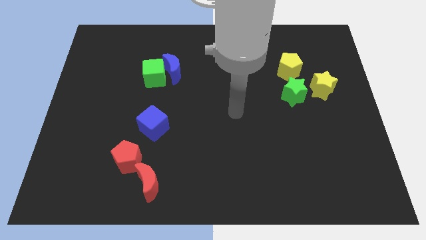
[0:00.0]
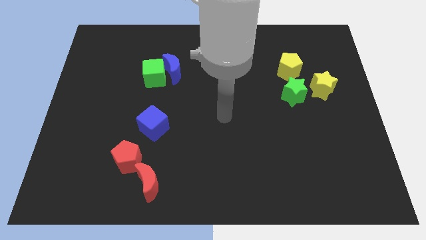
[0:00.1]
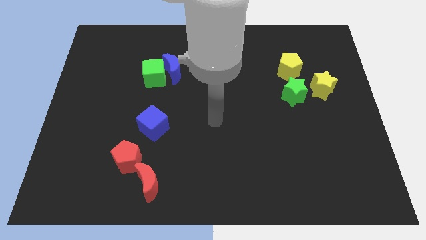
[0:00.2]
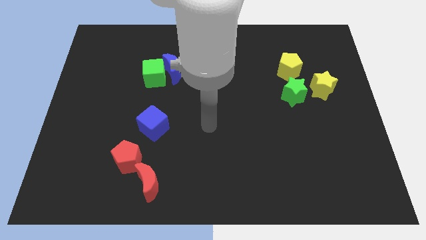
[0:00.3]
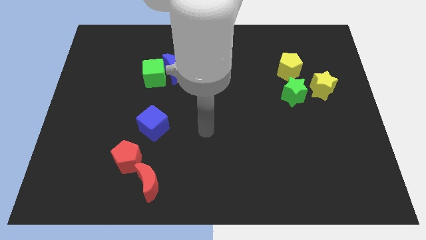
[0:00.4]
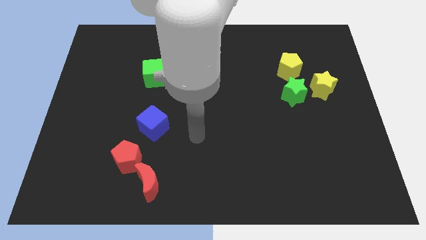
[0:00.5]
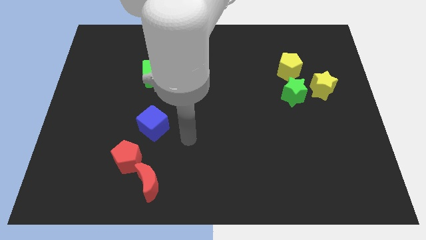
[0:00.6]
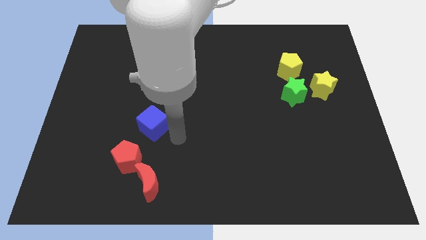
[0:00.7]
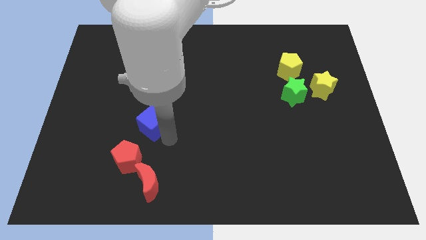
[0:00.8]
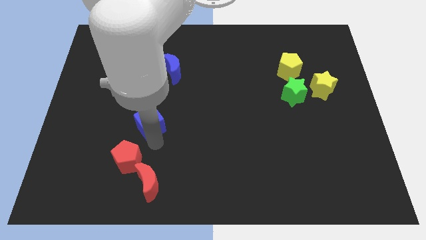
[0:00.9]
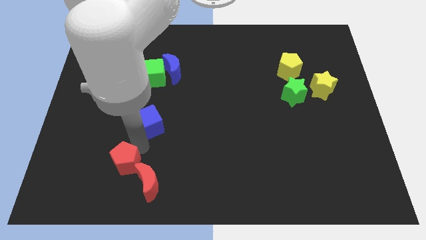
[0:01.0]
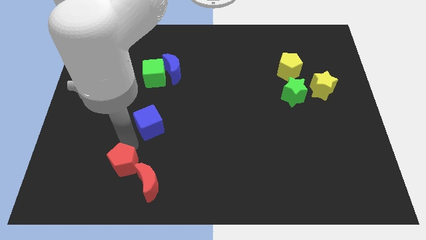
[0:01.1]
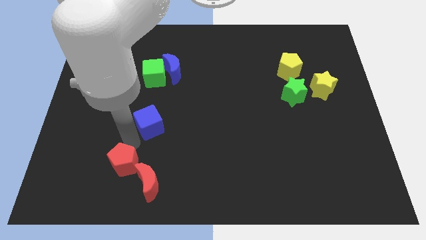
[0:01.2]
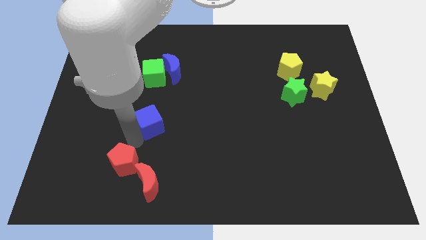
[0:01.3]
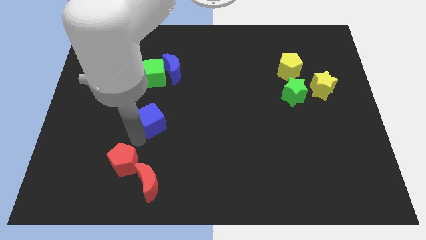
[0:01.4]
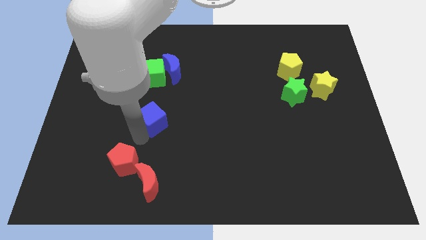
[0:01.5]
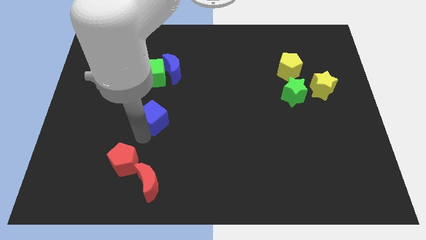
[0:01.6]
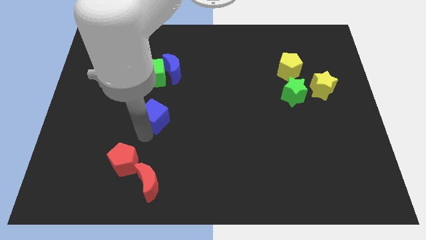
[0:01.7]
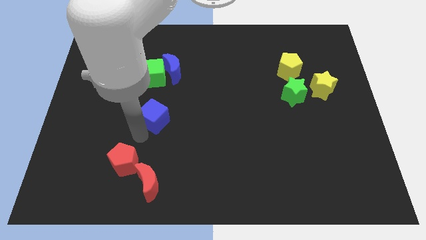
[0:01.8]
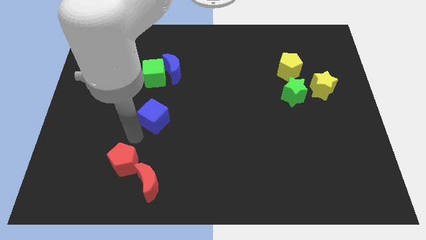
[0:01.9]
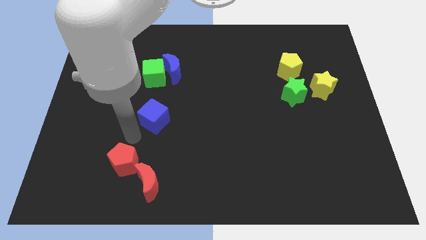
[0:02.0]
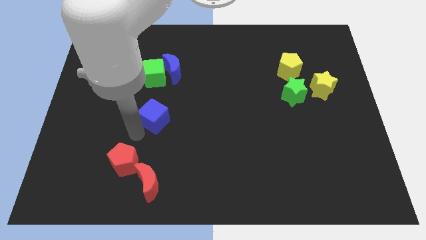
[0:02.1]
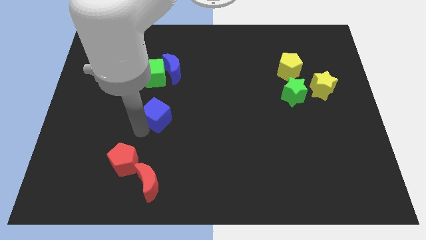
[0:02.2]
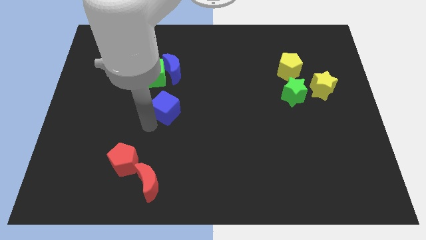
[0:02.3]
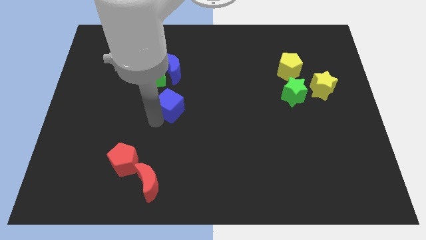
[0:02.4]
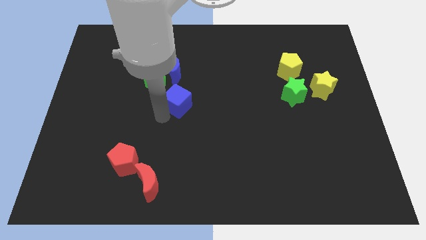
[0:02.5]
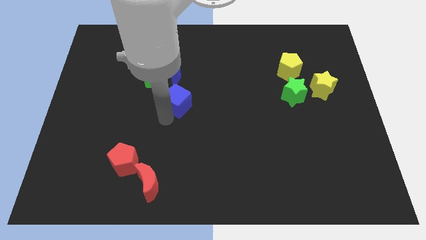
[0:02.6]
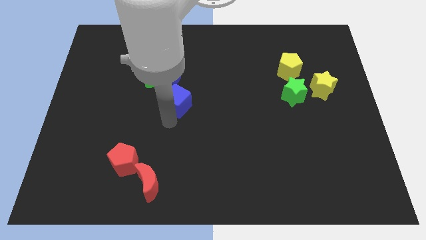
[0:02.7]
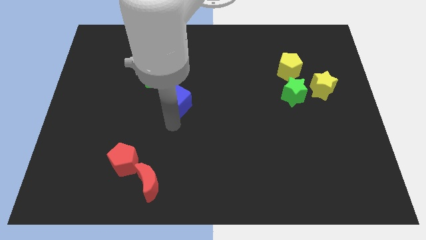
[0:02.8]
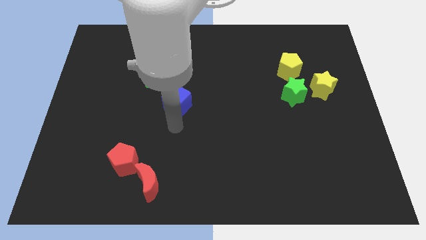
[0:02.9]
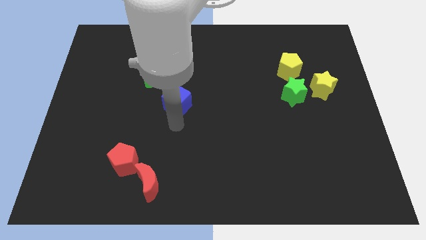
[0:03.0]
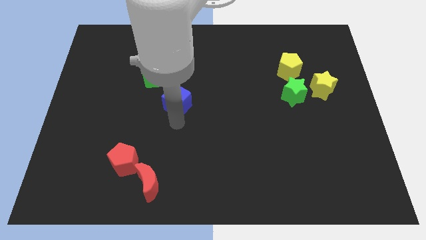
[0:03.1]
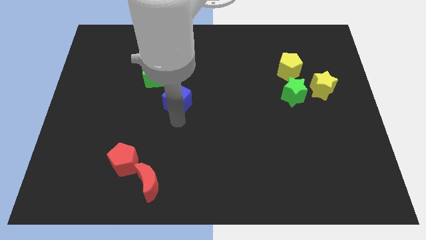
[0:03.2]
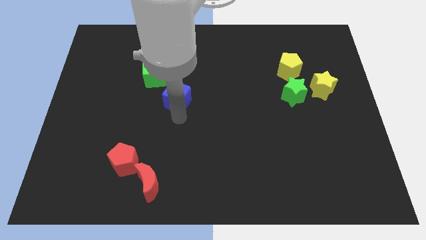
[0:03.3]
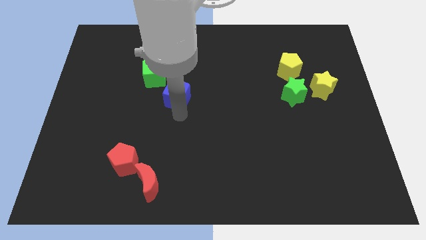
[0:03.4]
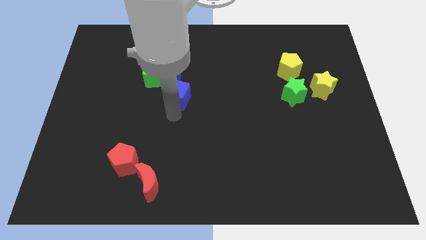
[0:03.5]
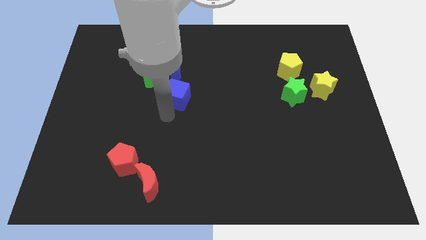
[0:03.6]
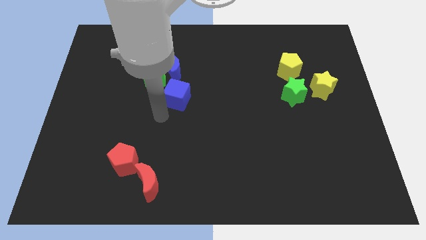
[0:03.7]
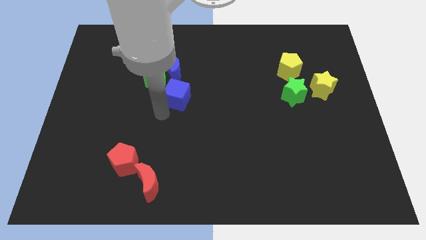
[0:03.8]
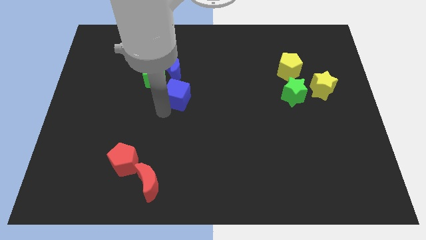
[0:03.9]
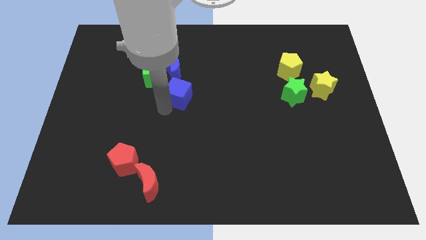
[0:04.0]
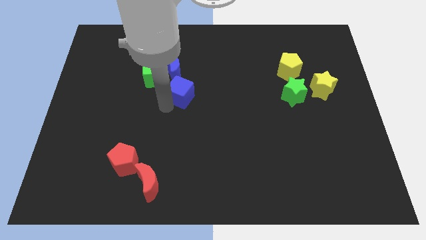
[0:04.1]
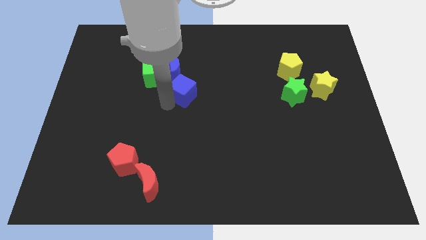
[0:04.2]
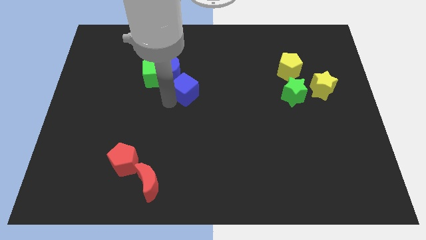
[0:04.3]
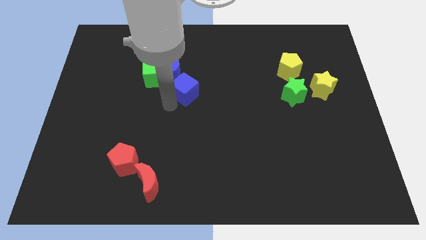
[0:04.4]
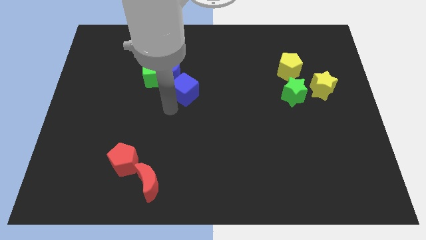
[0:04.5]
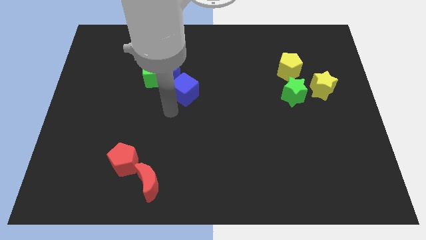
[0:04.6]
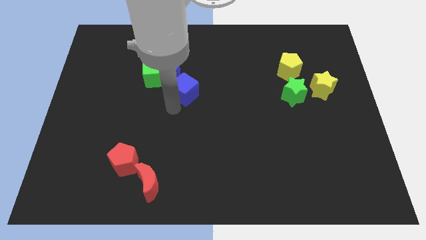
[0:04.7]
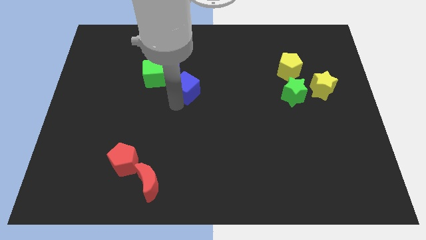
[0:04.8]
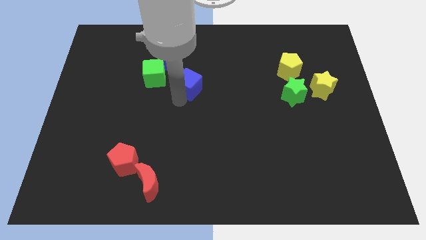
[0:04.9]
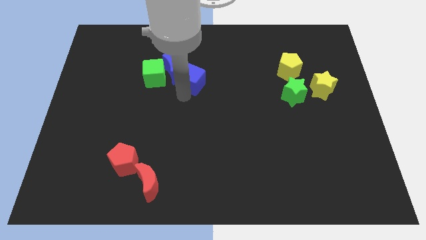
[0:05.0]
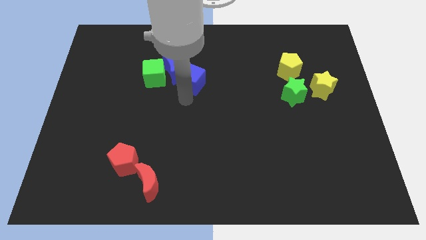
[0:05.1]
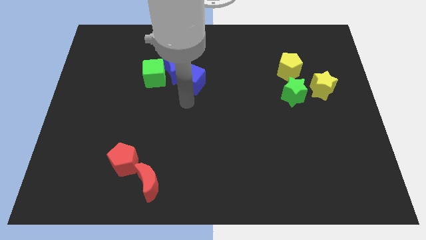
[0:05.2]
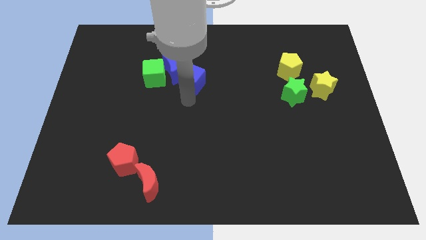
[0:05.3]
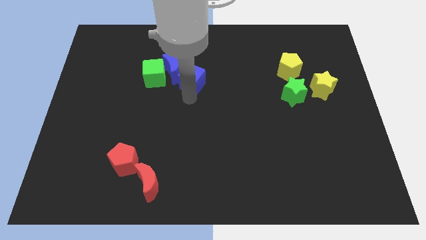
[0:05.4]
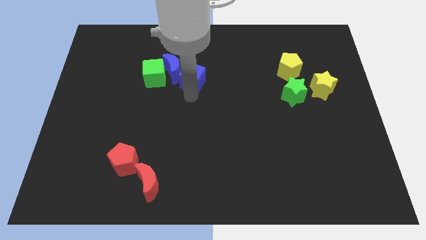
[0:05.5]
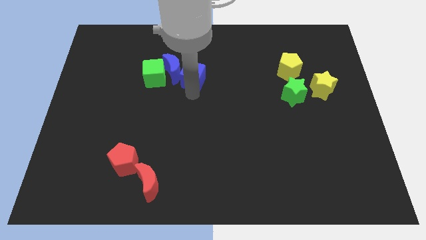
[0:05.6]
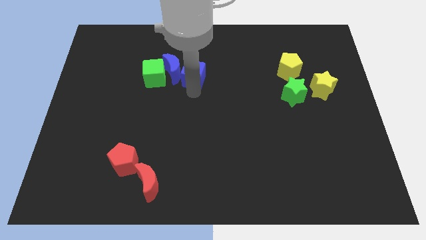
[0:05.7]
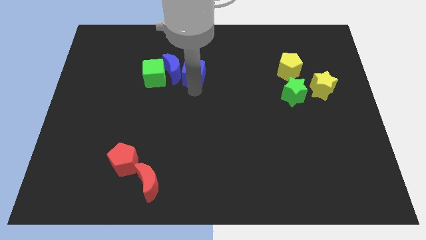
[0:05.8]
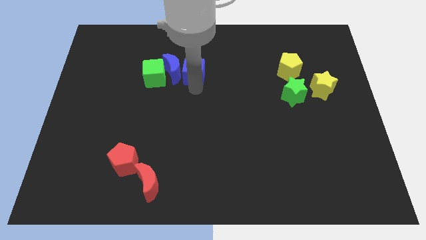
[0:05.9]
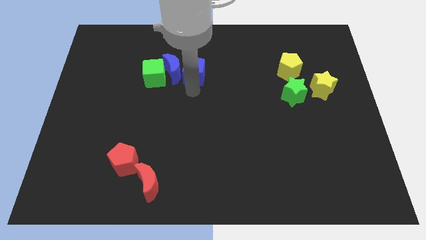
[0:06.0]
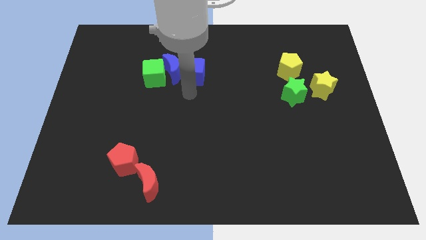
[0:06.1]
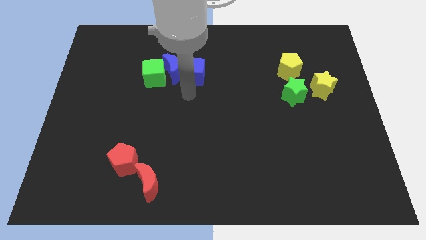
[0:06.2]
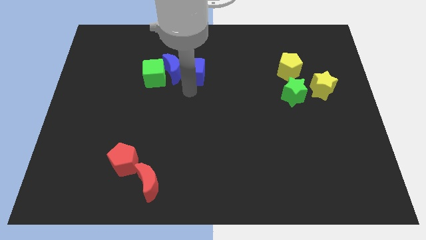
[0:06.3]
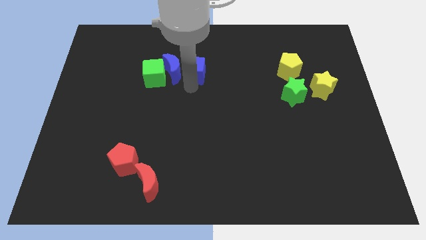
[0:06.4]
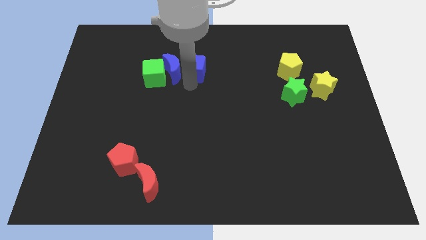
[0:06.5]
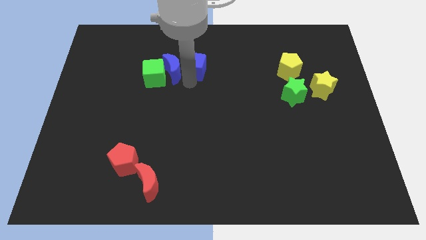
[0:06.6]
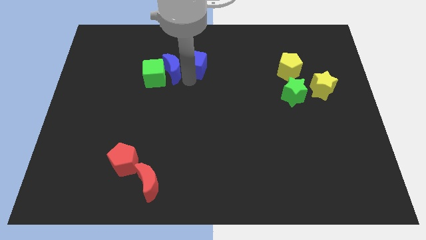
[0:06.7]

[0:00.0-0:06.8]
slide the blue cube diagonally up and to the right of the green cube

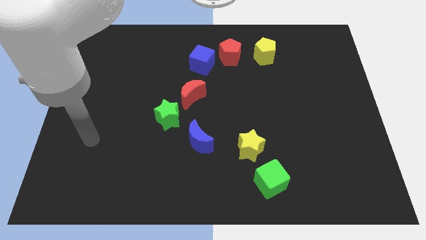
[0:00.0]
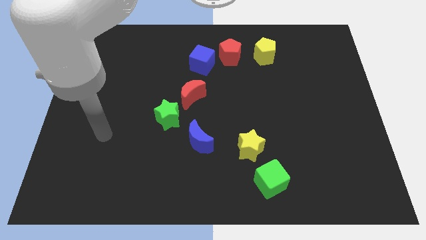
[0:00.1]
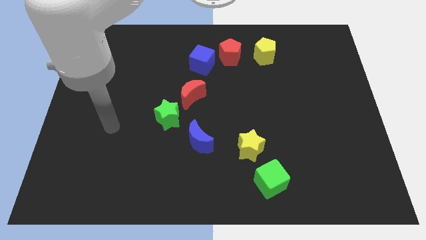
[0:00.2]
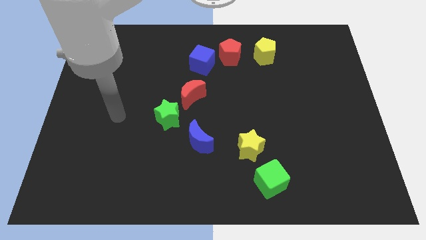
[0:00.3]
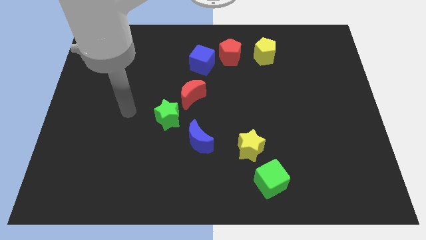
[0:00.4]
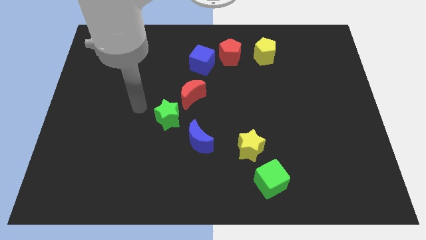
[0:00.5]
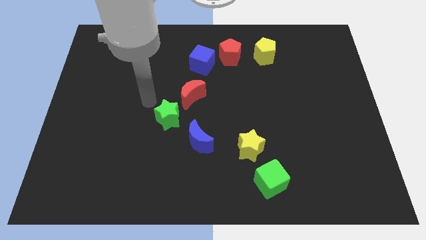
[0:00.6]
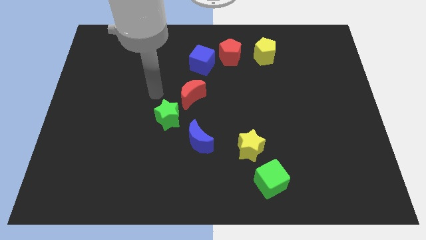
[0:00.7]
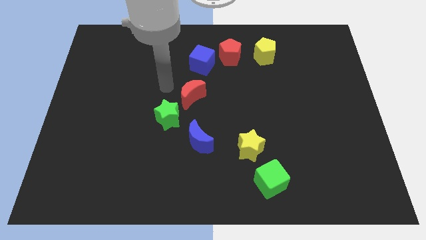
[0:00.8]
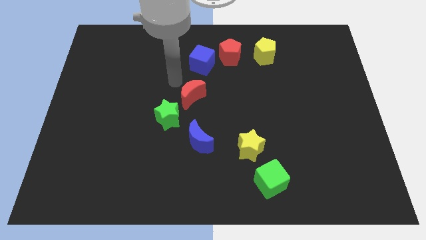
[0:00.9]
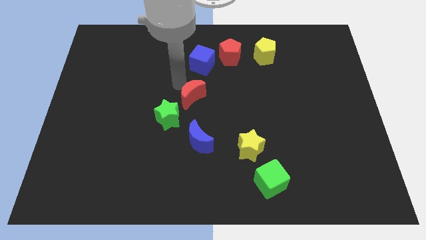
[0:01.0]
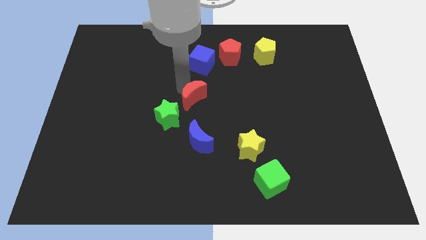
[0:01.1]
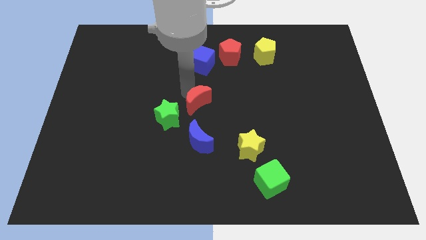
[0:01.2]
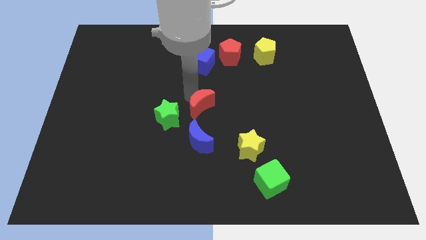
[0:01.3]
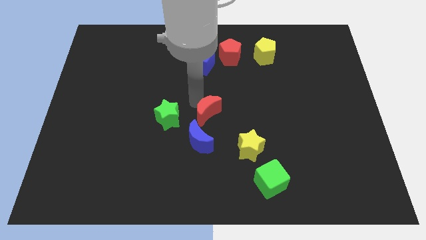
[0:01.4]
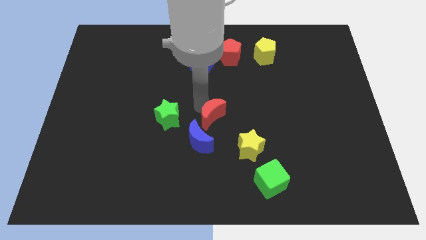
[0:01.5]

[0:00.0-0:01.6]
put the red moon to the top left of the yellow star
